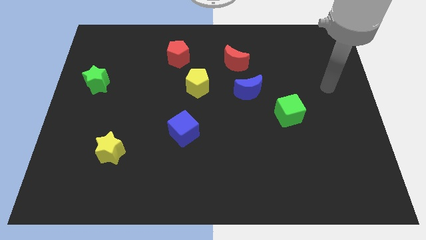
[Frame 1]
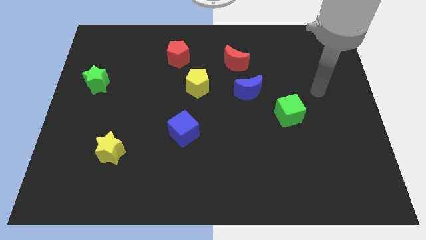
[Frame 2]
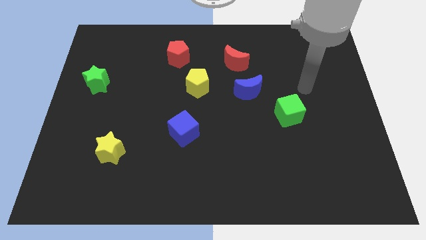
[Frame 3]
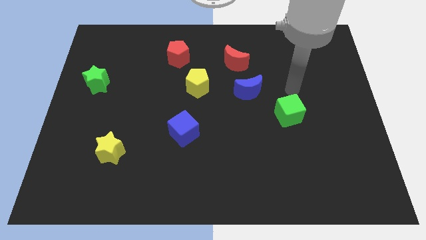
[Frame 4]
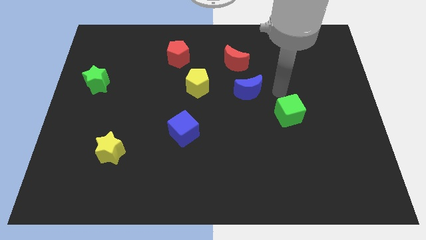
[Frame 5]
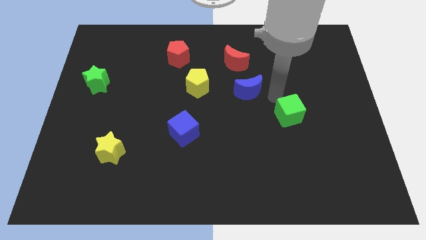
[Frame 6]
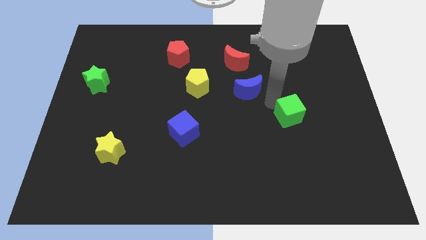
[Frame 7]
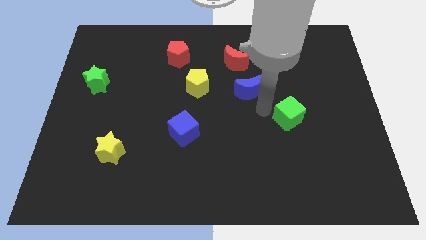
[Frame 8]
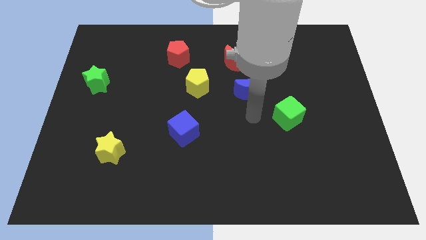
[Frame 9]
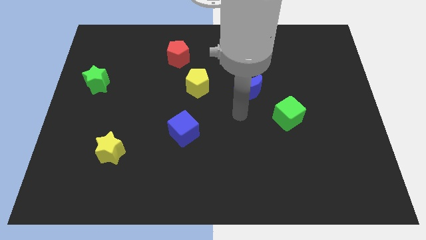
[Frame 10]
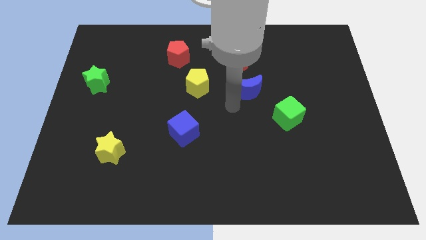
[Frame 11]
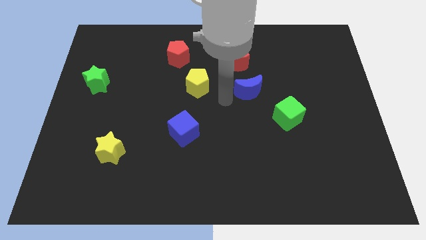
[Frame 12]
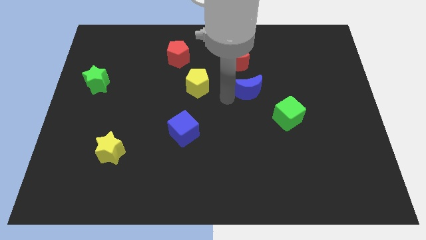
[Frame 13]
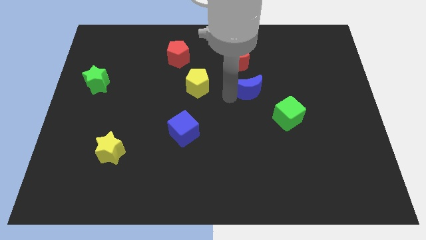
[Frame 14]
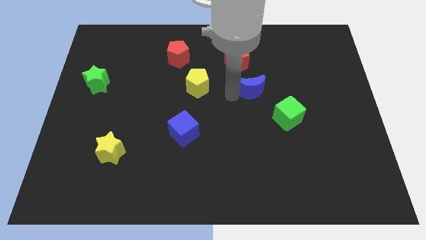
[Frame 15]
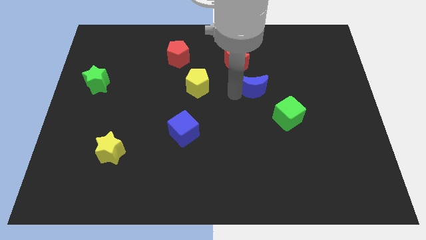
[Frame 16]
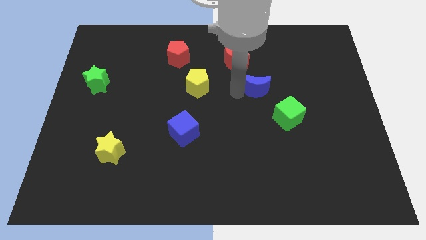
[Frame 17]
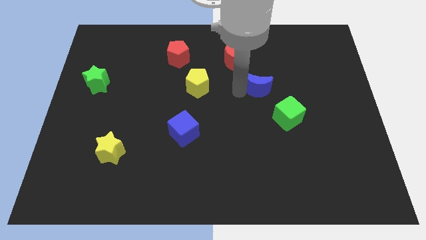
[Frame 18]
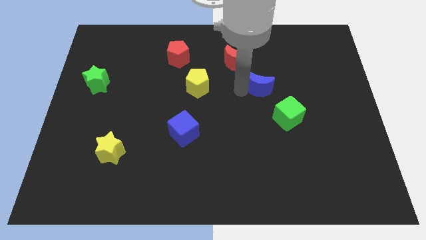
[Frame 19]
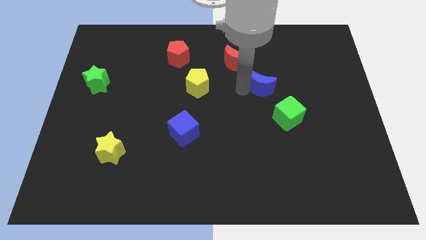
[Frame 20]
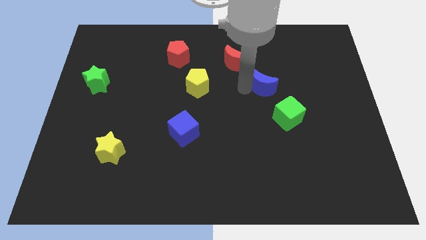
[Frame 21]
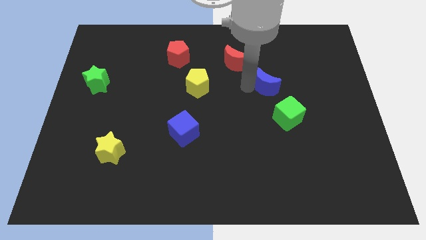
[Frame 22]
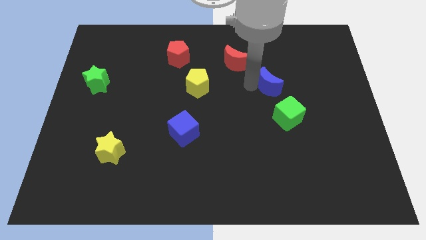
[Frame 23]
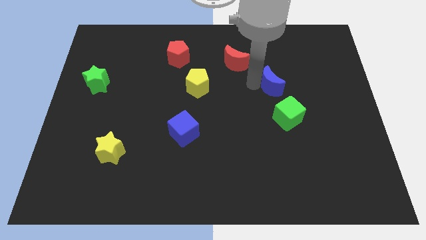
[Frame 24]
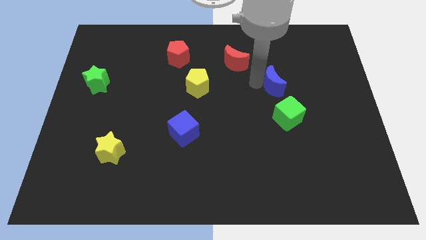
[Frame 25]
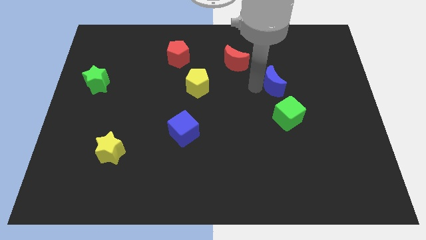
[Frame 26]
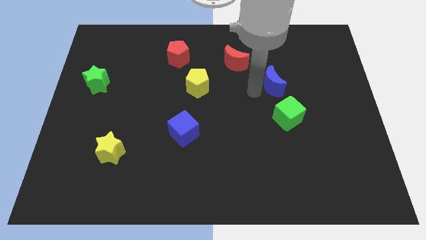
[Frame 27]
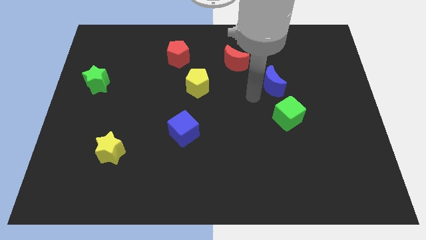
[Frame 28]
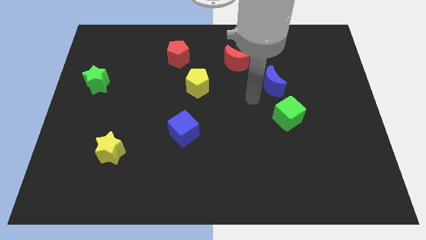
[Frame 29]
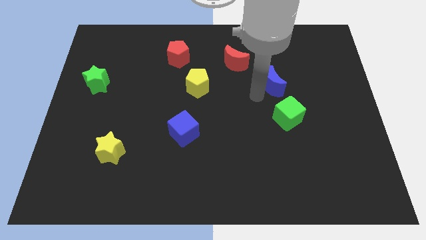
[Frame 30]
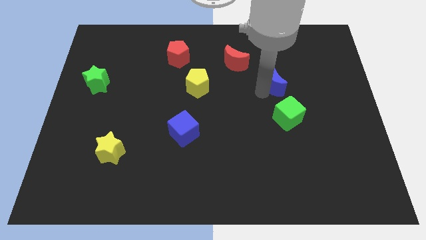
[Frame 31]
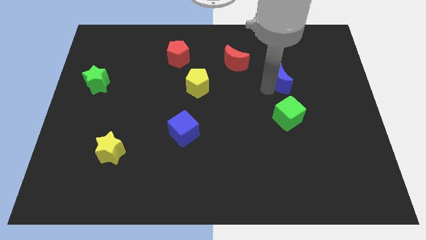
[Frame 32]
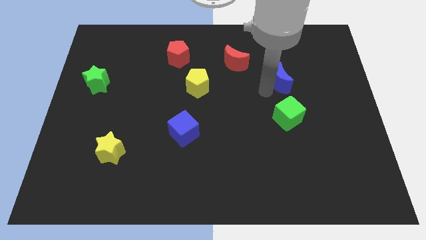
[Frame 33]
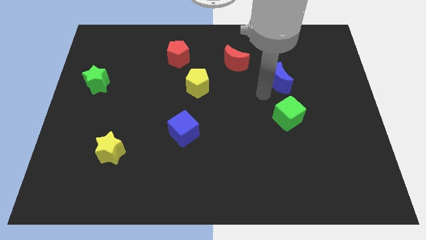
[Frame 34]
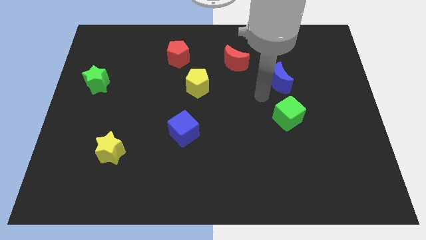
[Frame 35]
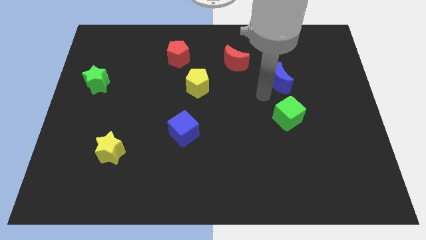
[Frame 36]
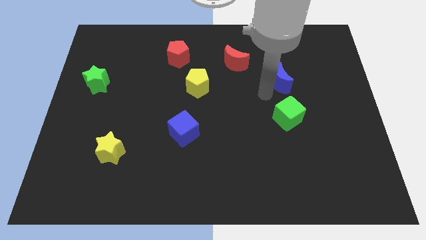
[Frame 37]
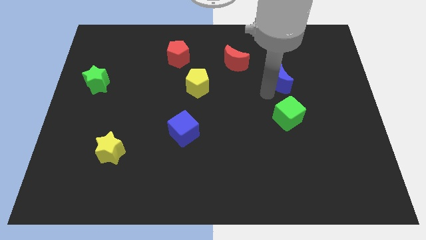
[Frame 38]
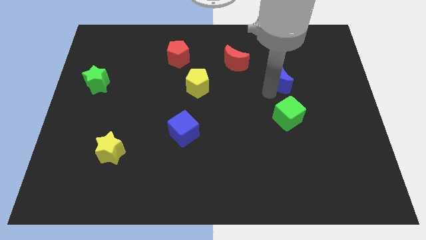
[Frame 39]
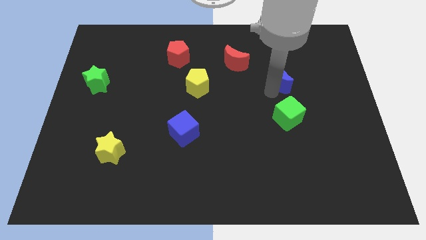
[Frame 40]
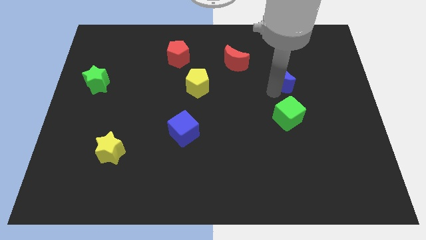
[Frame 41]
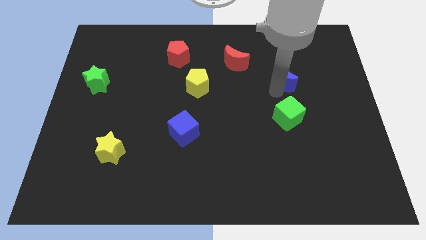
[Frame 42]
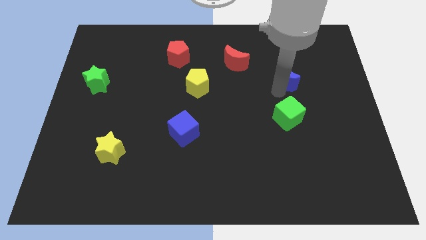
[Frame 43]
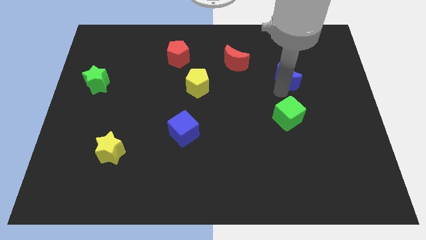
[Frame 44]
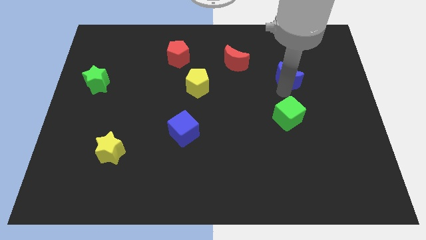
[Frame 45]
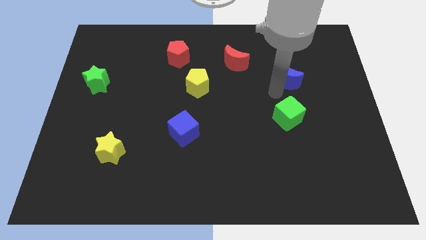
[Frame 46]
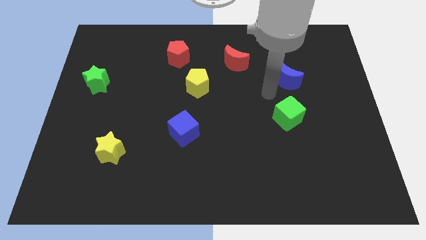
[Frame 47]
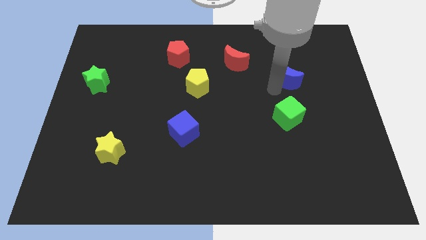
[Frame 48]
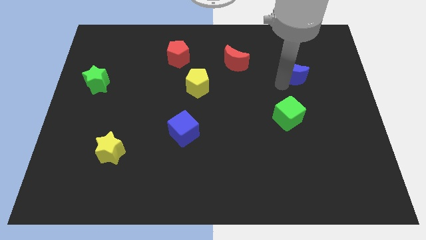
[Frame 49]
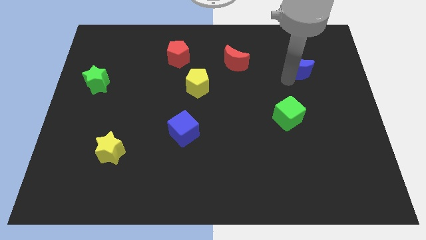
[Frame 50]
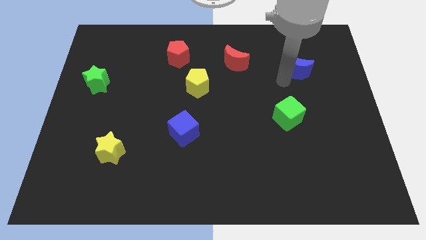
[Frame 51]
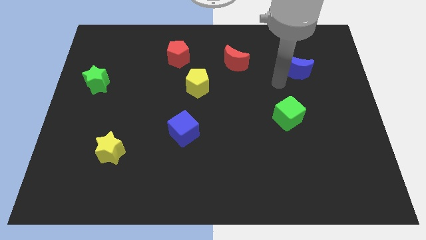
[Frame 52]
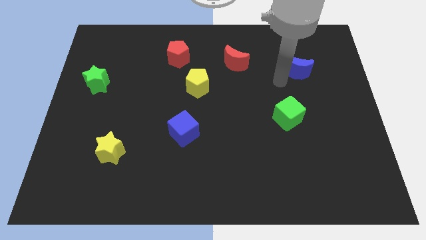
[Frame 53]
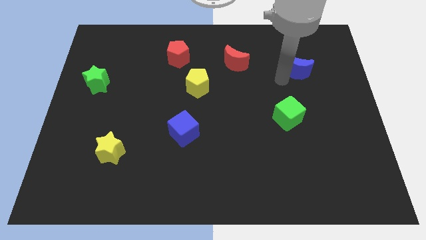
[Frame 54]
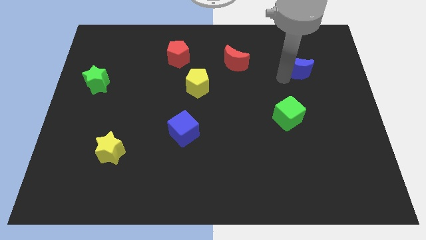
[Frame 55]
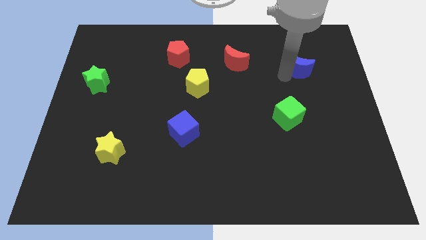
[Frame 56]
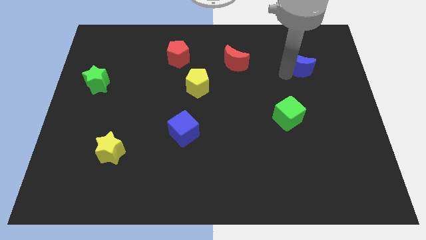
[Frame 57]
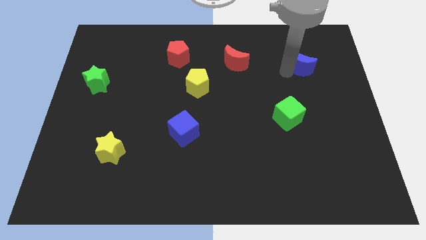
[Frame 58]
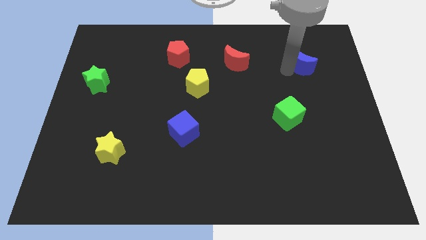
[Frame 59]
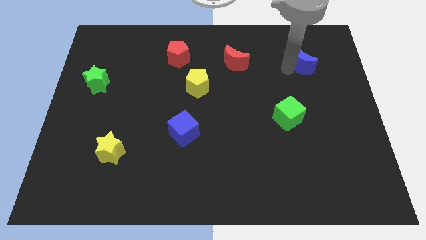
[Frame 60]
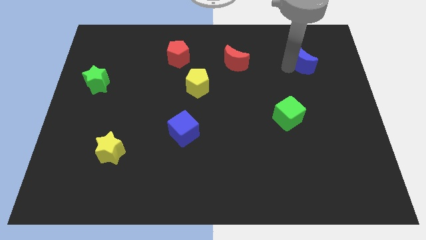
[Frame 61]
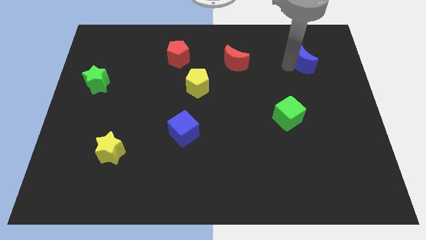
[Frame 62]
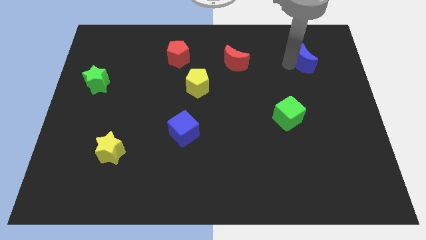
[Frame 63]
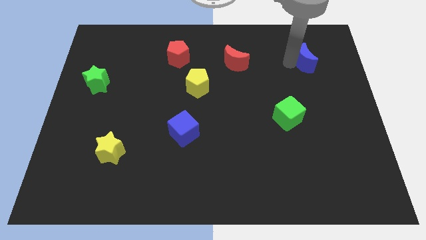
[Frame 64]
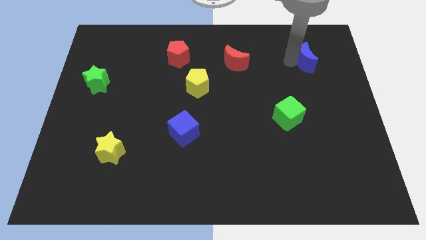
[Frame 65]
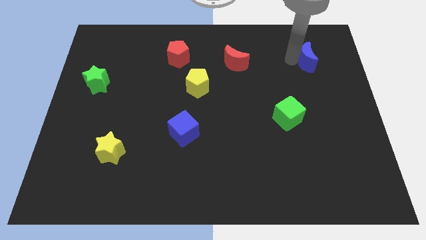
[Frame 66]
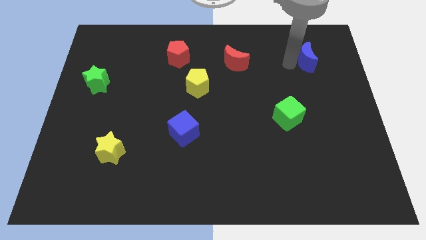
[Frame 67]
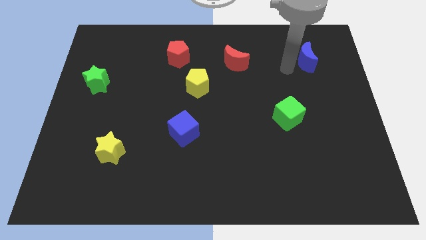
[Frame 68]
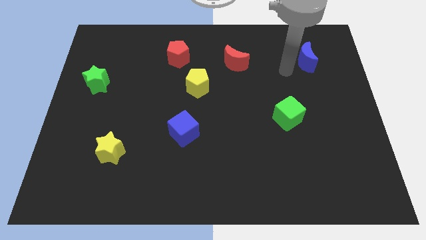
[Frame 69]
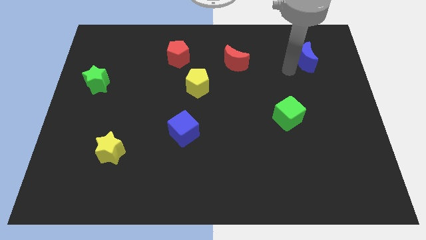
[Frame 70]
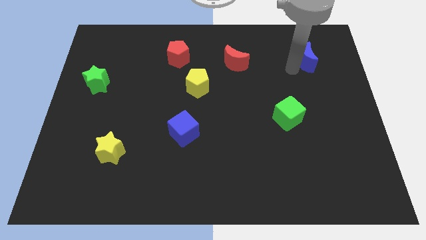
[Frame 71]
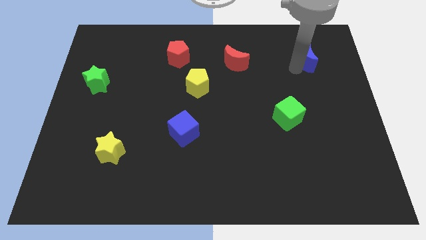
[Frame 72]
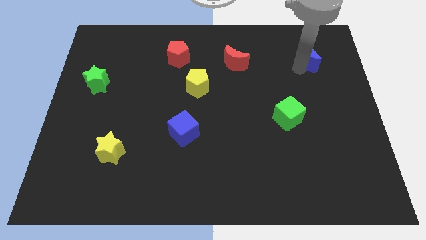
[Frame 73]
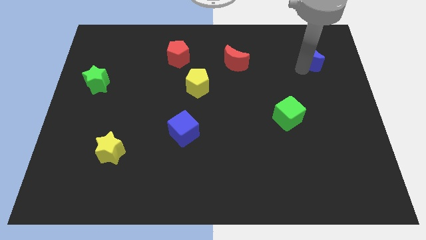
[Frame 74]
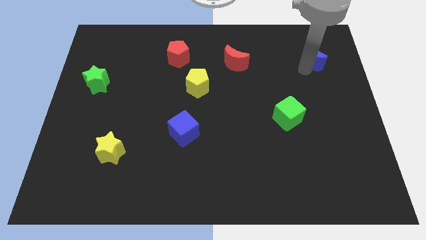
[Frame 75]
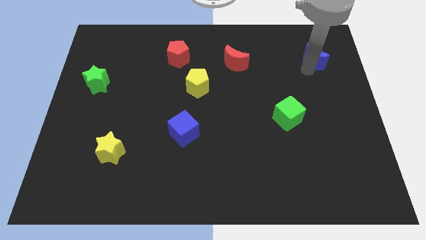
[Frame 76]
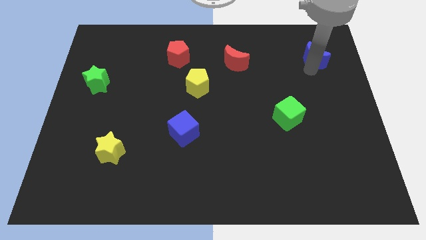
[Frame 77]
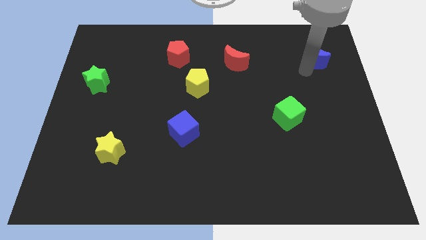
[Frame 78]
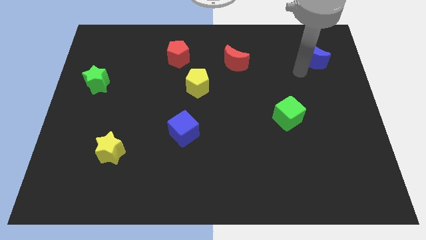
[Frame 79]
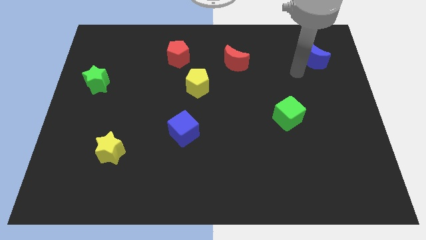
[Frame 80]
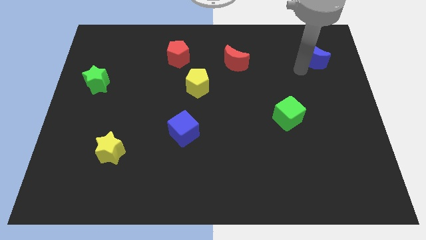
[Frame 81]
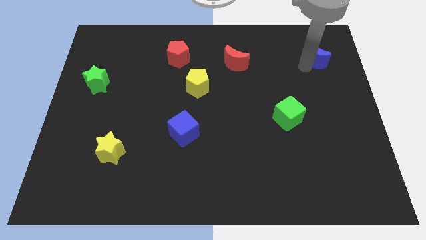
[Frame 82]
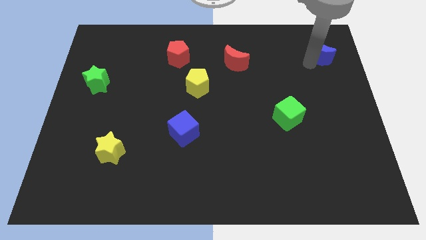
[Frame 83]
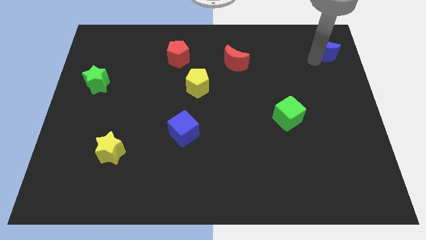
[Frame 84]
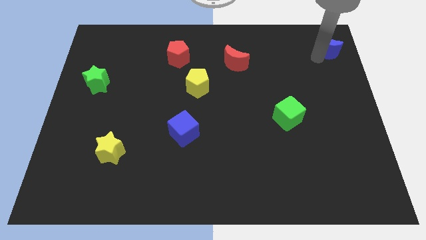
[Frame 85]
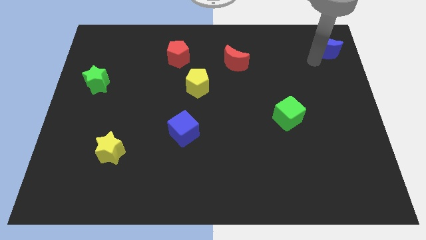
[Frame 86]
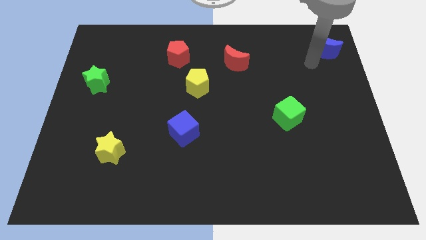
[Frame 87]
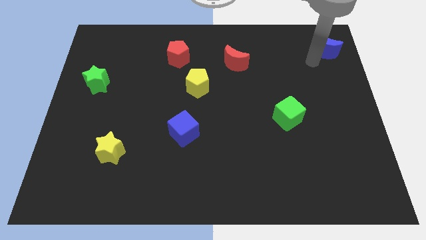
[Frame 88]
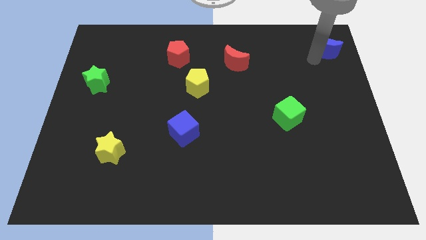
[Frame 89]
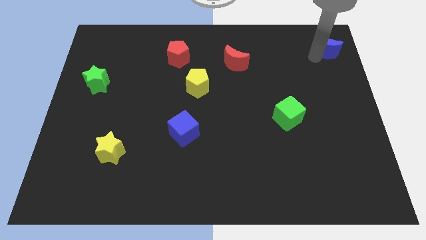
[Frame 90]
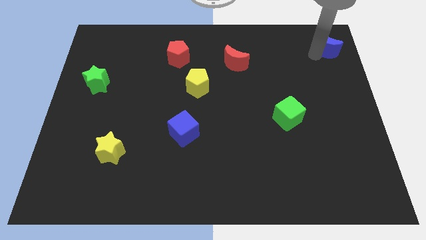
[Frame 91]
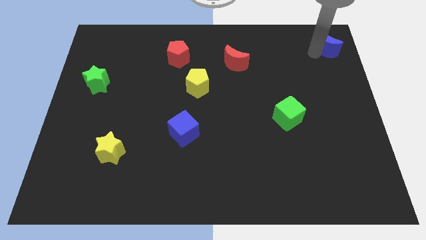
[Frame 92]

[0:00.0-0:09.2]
push the blue moon to the top right corner
